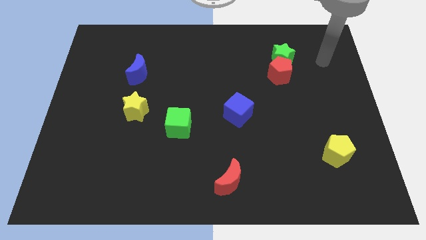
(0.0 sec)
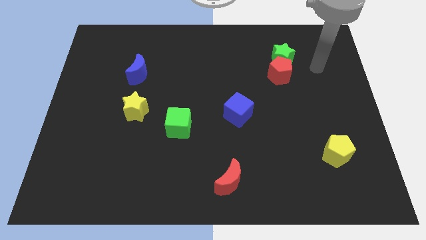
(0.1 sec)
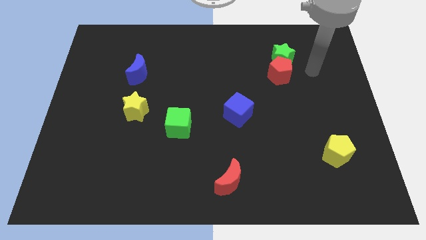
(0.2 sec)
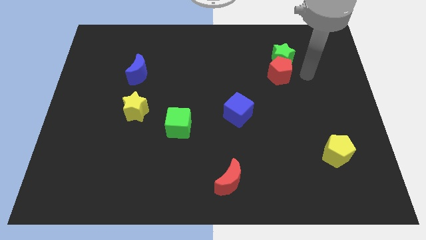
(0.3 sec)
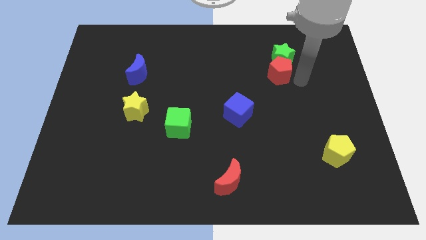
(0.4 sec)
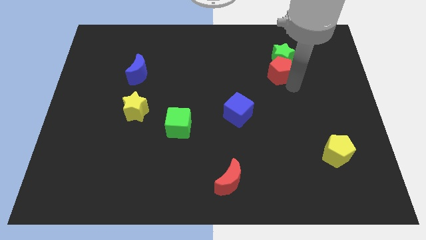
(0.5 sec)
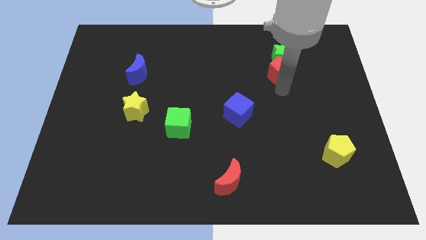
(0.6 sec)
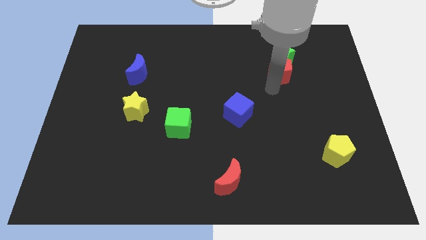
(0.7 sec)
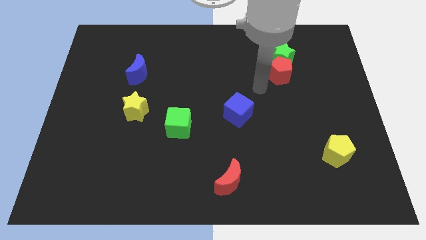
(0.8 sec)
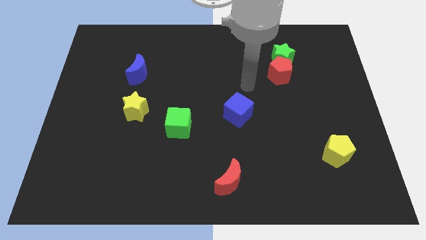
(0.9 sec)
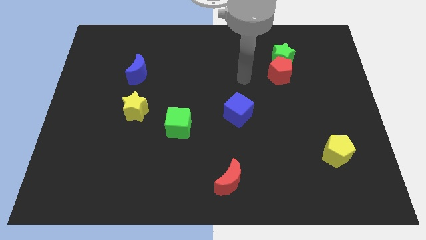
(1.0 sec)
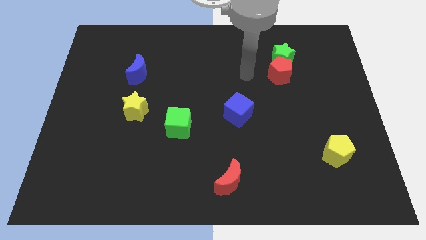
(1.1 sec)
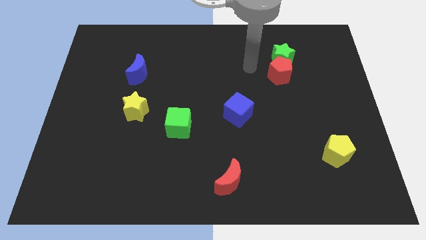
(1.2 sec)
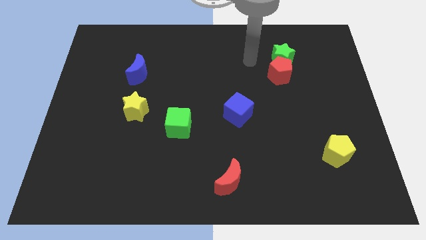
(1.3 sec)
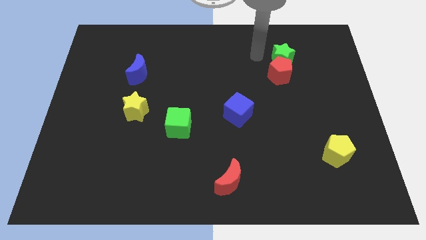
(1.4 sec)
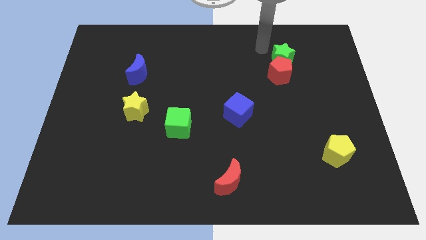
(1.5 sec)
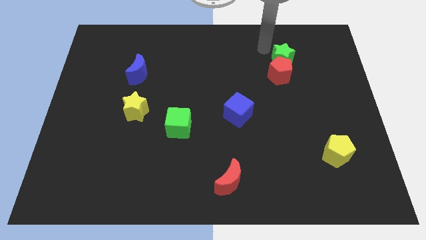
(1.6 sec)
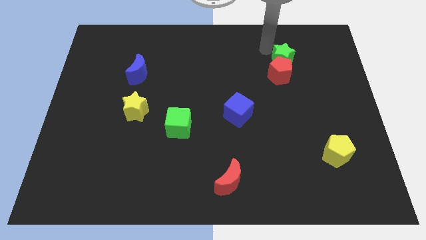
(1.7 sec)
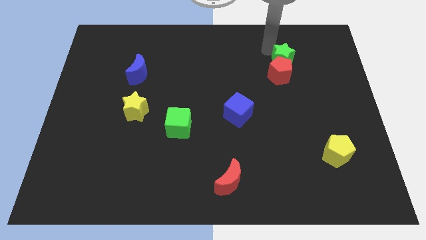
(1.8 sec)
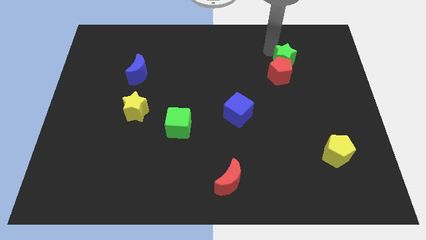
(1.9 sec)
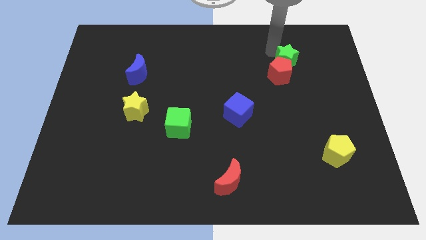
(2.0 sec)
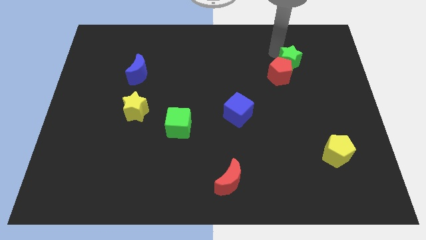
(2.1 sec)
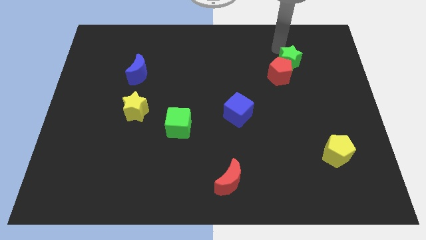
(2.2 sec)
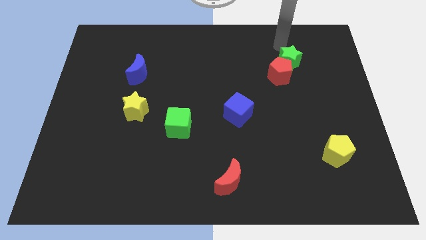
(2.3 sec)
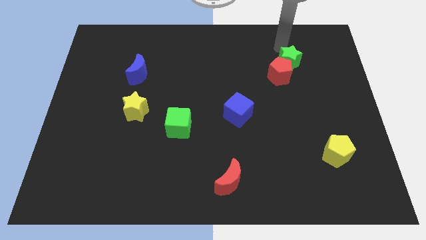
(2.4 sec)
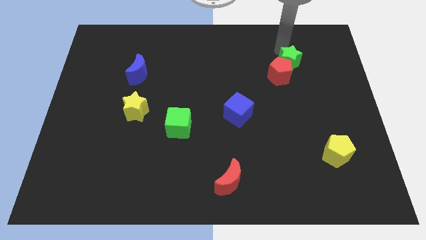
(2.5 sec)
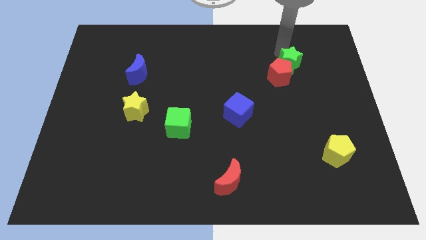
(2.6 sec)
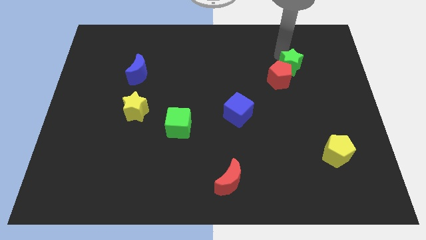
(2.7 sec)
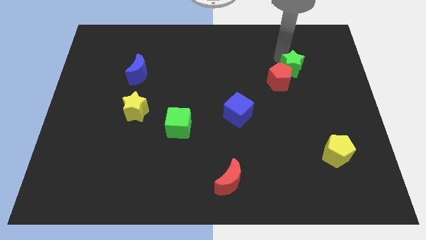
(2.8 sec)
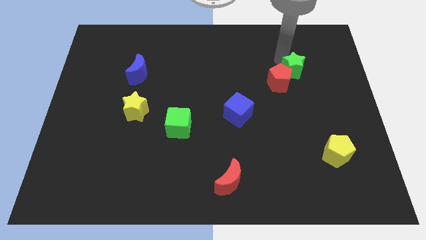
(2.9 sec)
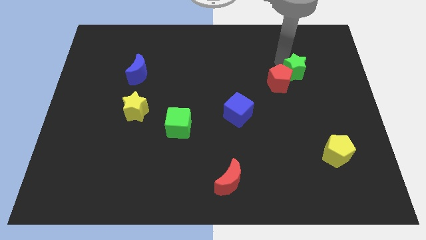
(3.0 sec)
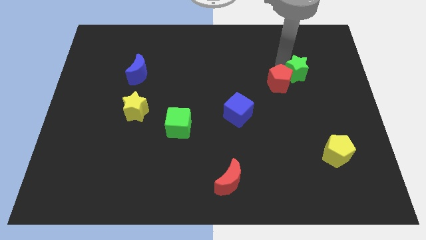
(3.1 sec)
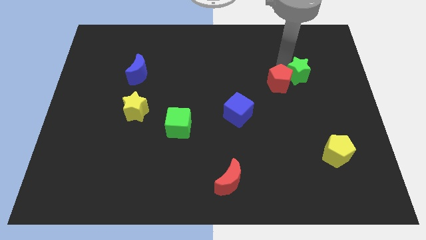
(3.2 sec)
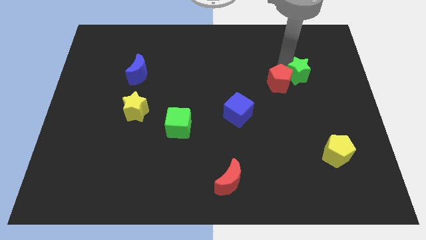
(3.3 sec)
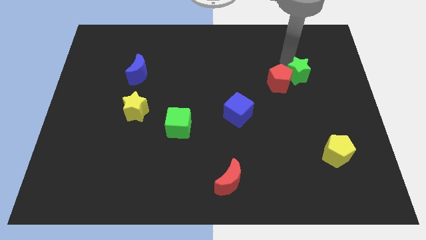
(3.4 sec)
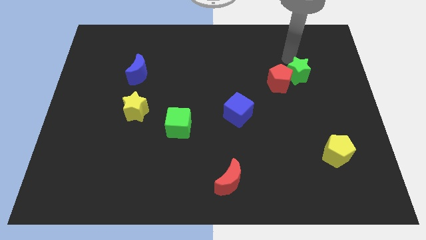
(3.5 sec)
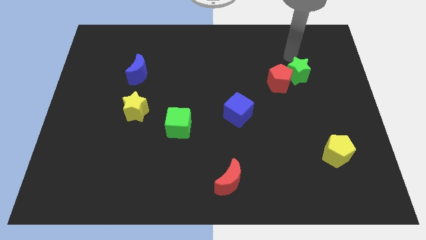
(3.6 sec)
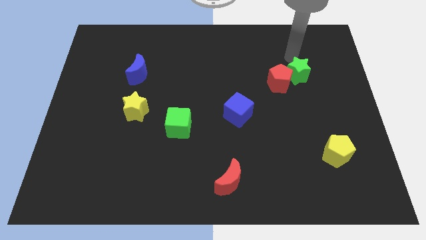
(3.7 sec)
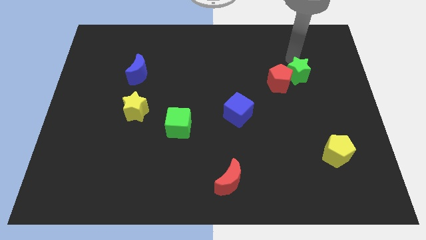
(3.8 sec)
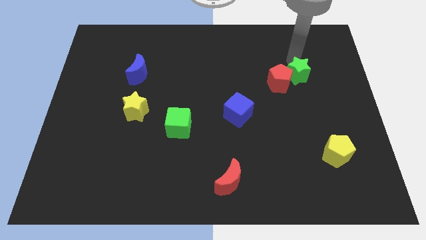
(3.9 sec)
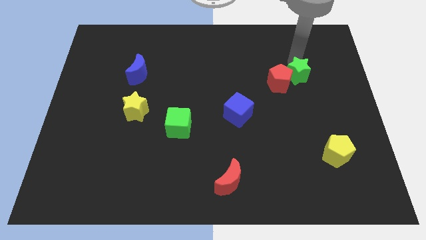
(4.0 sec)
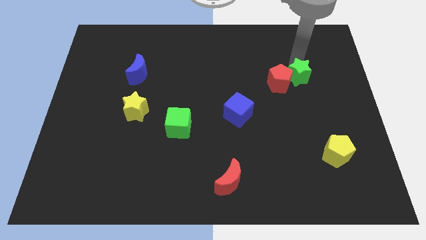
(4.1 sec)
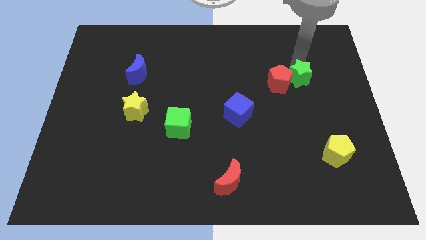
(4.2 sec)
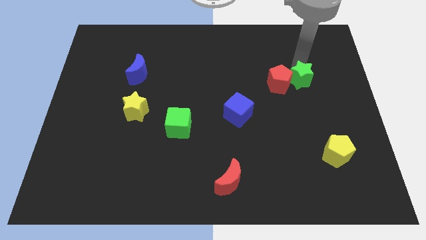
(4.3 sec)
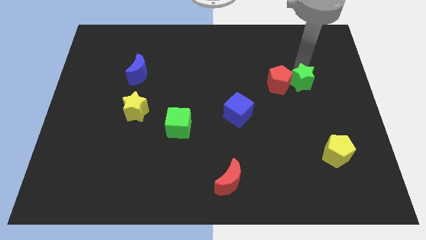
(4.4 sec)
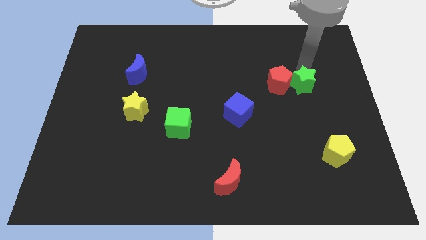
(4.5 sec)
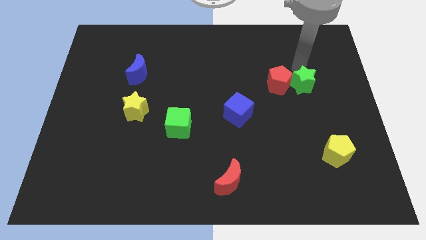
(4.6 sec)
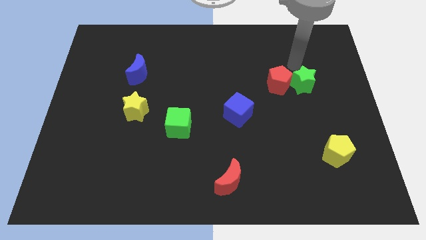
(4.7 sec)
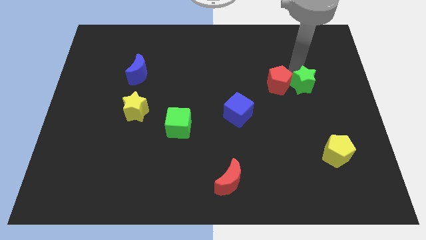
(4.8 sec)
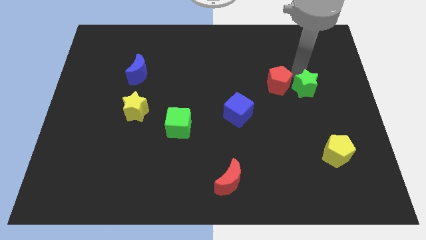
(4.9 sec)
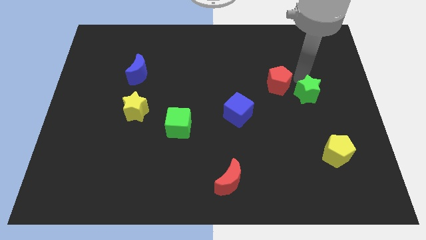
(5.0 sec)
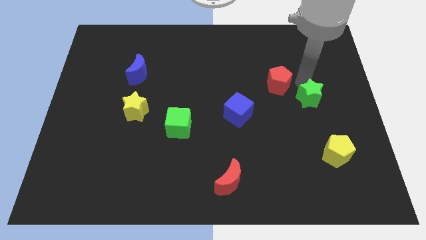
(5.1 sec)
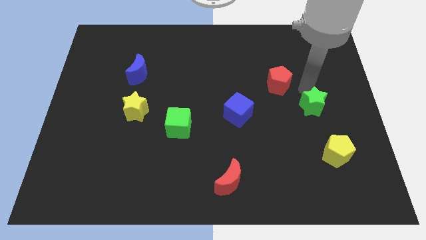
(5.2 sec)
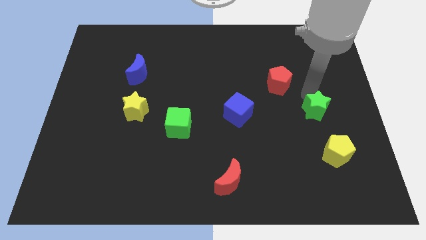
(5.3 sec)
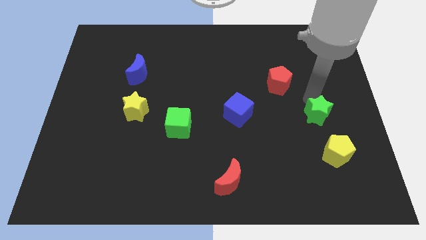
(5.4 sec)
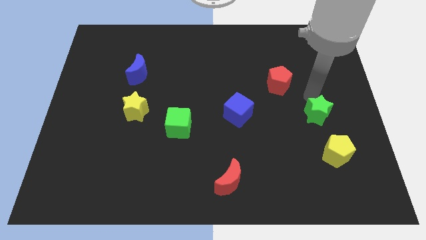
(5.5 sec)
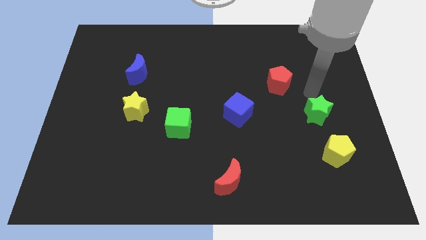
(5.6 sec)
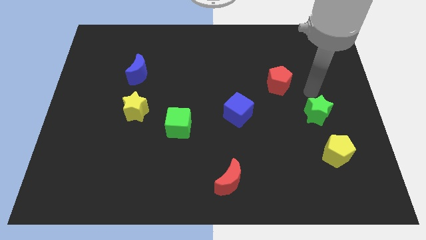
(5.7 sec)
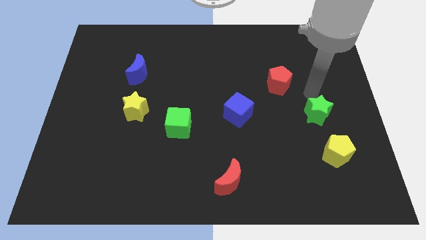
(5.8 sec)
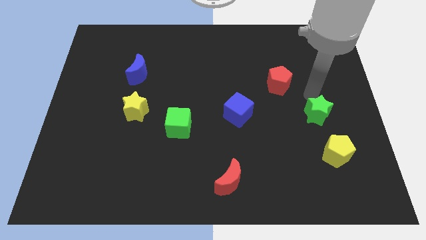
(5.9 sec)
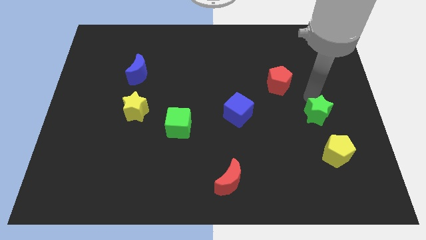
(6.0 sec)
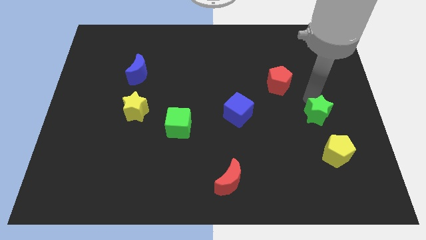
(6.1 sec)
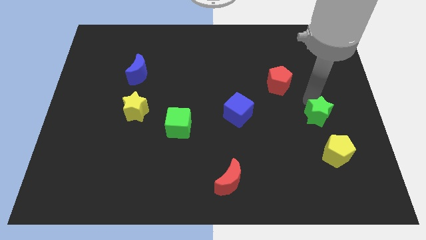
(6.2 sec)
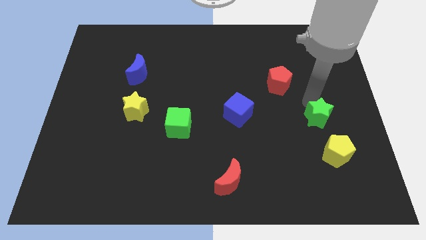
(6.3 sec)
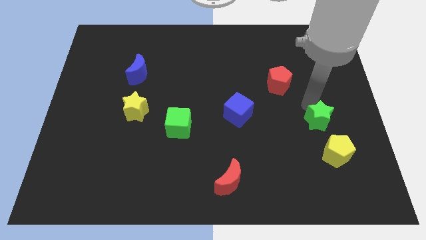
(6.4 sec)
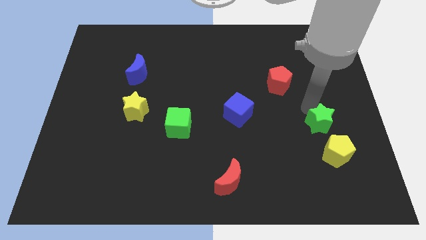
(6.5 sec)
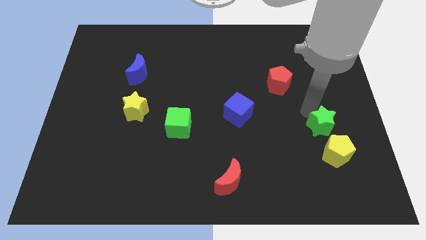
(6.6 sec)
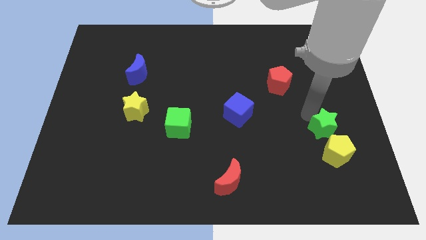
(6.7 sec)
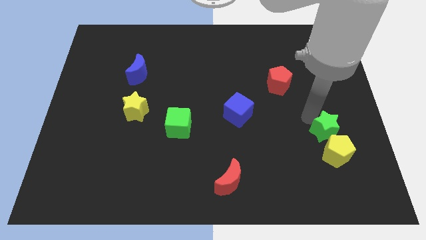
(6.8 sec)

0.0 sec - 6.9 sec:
move the green star towards the yellow pentagon

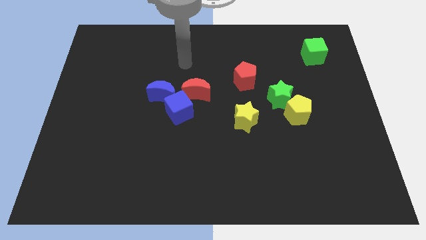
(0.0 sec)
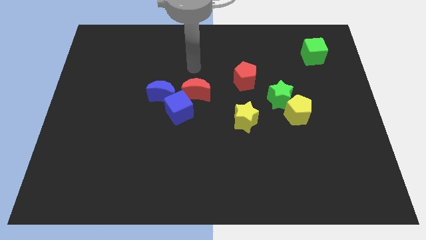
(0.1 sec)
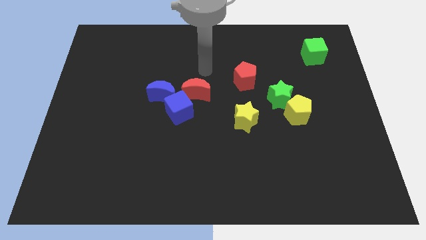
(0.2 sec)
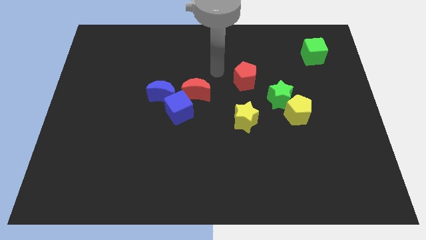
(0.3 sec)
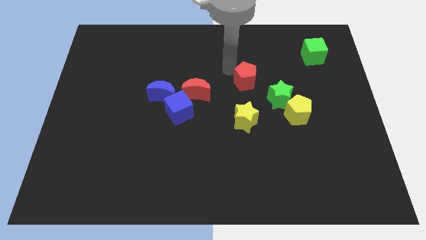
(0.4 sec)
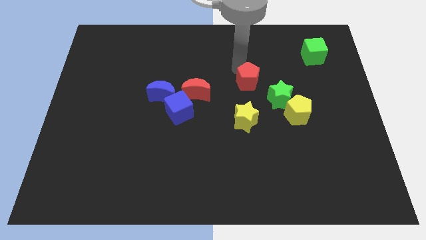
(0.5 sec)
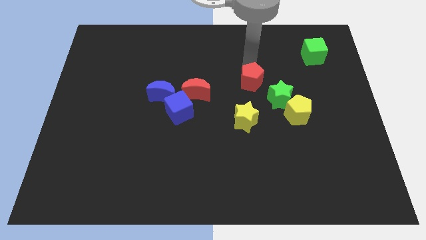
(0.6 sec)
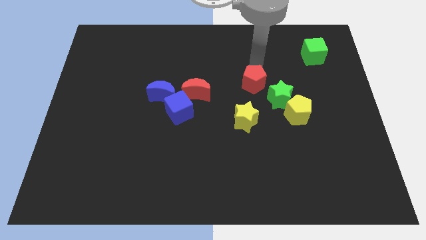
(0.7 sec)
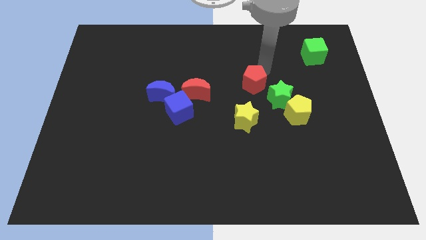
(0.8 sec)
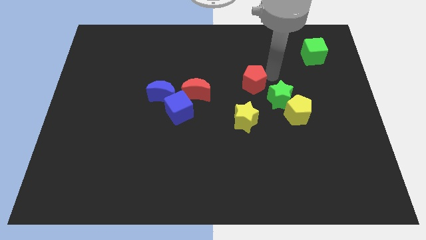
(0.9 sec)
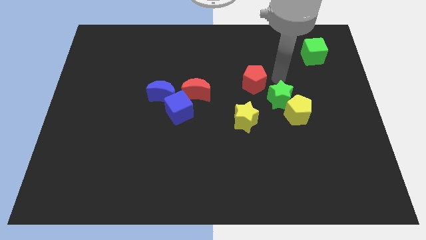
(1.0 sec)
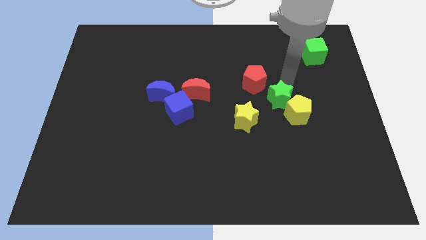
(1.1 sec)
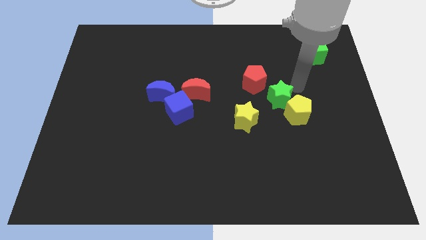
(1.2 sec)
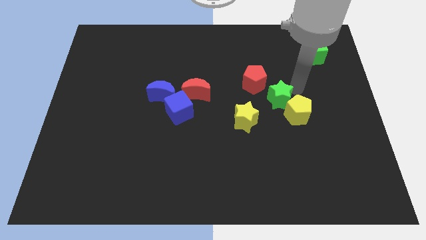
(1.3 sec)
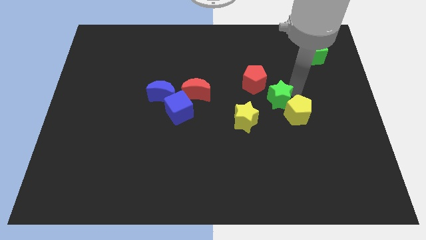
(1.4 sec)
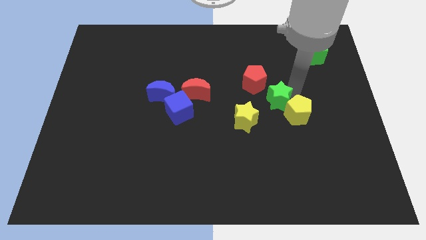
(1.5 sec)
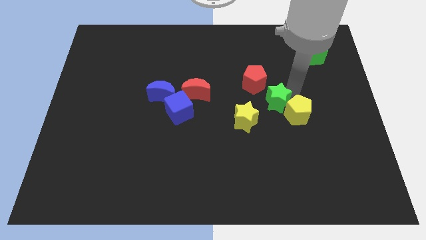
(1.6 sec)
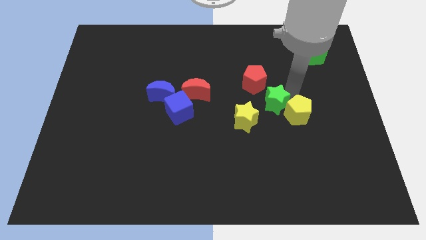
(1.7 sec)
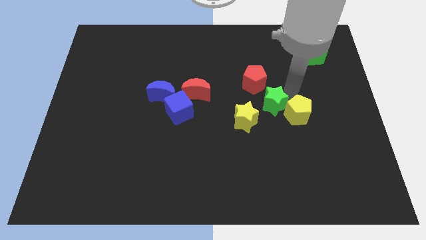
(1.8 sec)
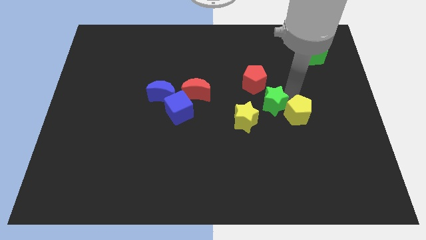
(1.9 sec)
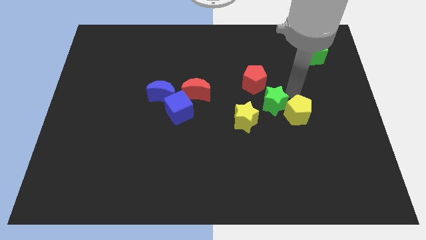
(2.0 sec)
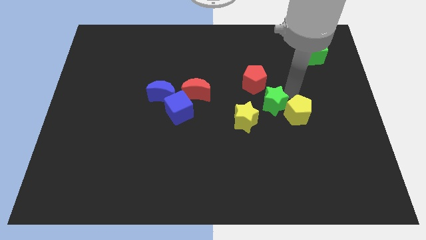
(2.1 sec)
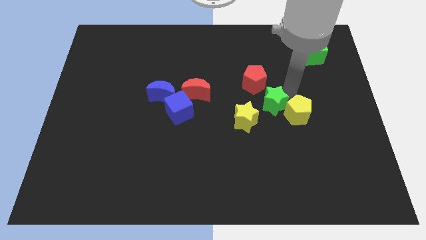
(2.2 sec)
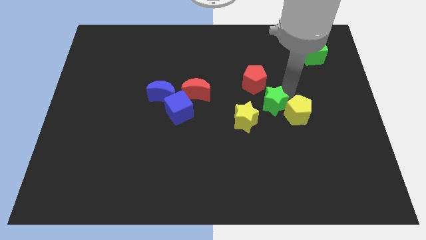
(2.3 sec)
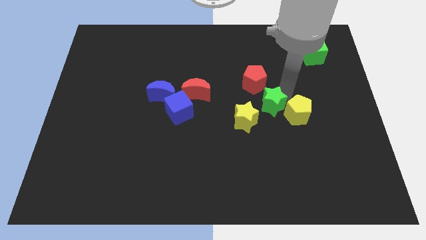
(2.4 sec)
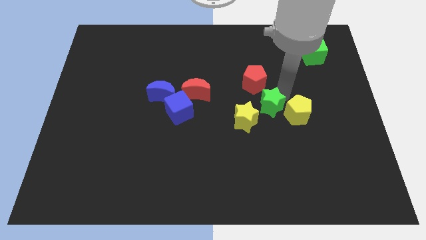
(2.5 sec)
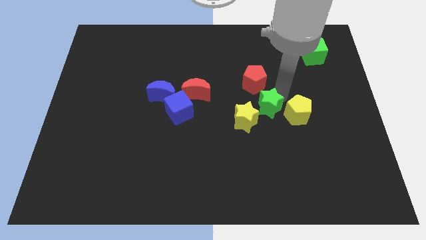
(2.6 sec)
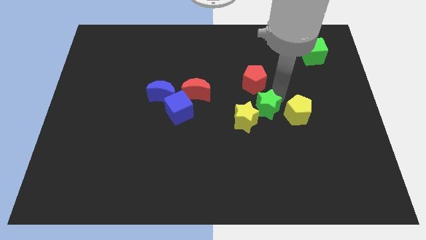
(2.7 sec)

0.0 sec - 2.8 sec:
slide the green star close to the yellow star
